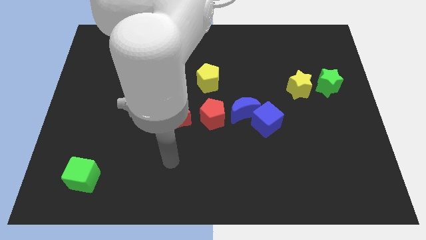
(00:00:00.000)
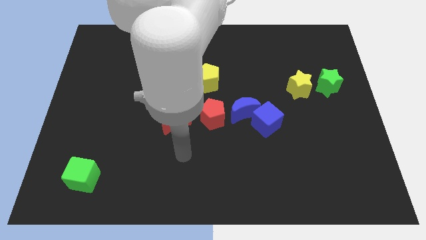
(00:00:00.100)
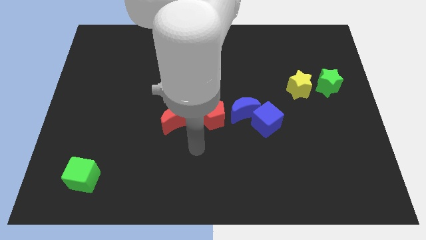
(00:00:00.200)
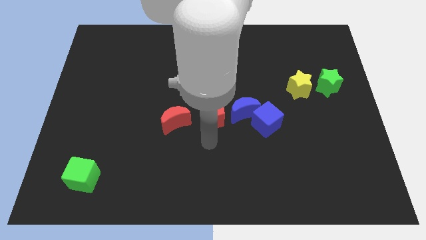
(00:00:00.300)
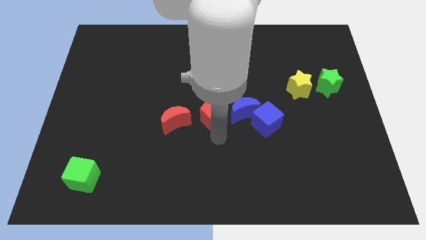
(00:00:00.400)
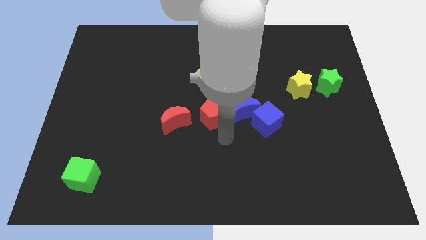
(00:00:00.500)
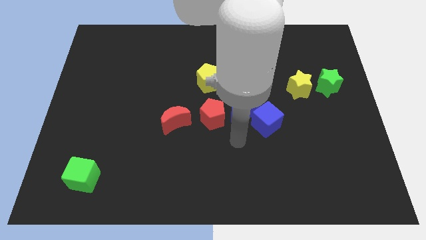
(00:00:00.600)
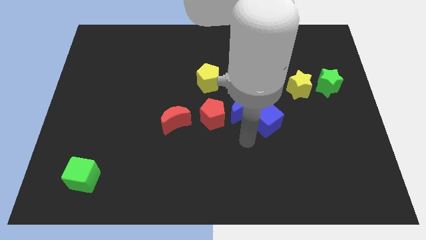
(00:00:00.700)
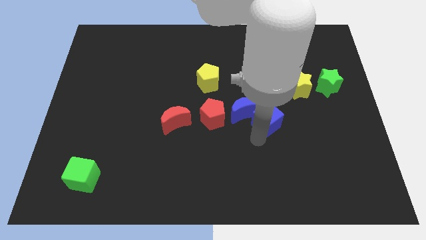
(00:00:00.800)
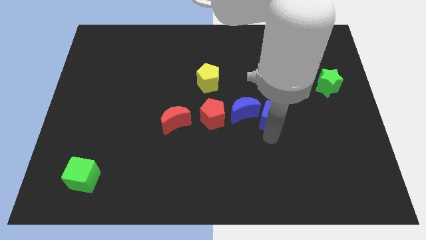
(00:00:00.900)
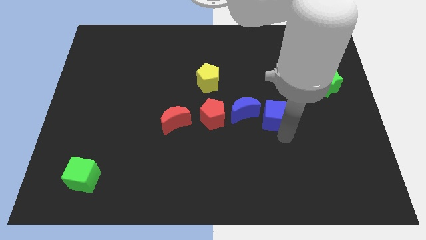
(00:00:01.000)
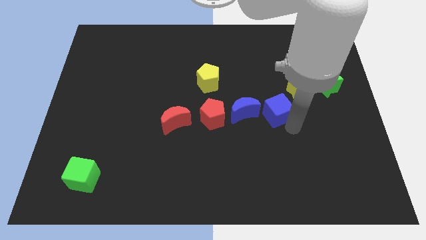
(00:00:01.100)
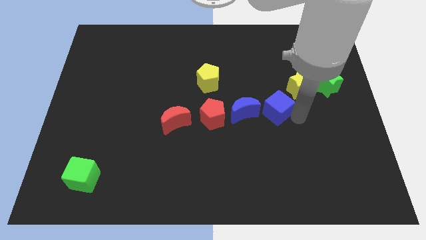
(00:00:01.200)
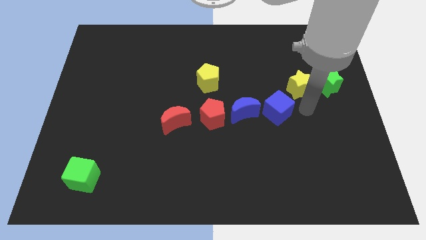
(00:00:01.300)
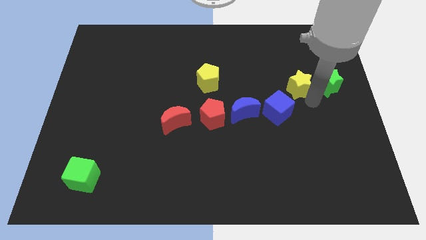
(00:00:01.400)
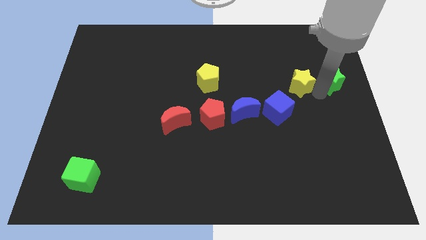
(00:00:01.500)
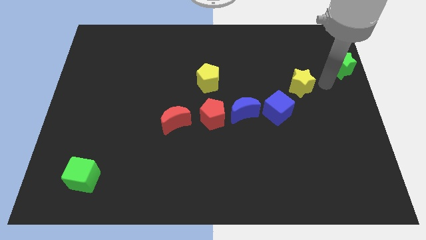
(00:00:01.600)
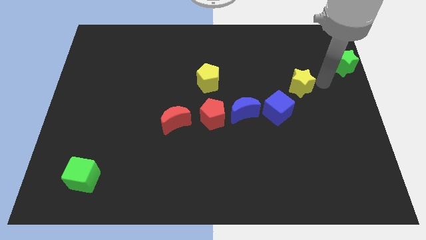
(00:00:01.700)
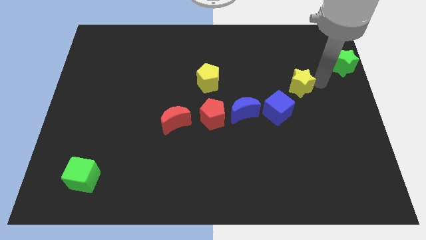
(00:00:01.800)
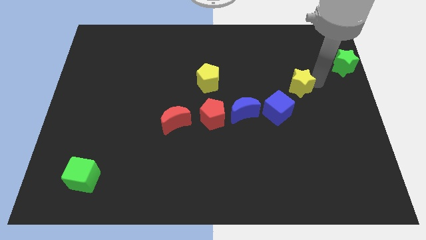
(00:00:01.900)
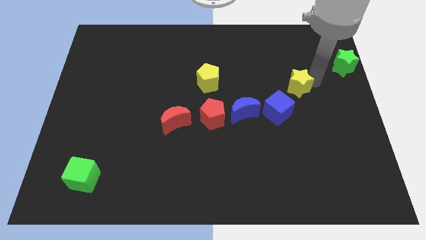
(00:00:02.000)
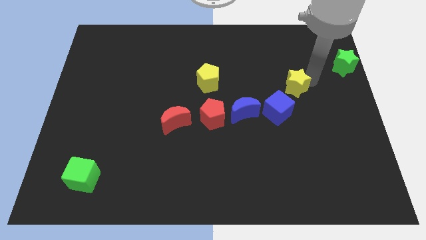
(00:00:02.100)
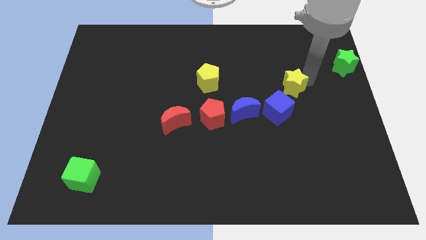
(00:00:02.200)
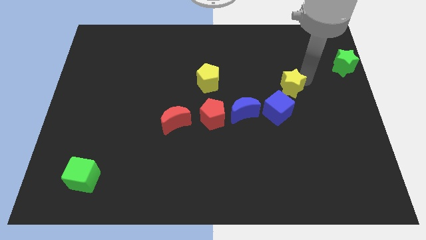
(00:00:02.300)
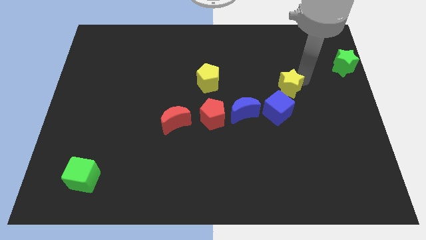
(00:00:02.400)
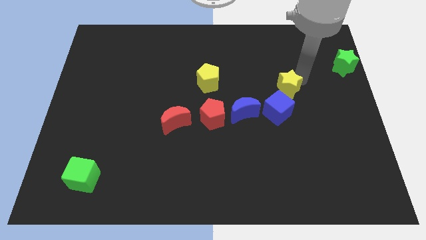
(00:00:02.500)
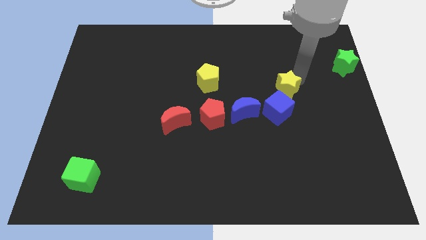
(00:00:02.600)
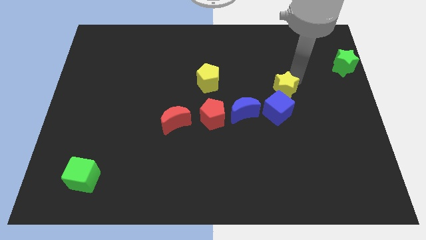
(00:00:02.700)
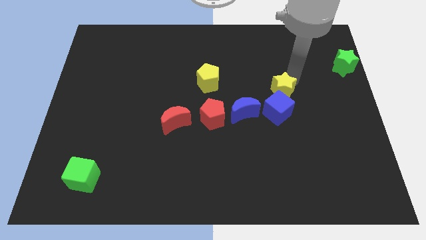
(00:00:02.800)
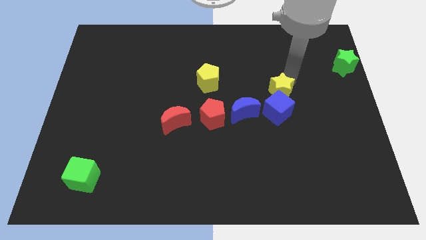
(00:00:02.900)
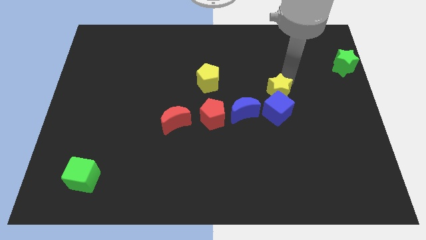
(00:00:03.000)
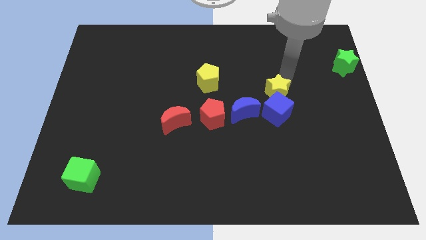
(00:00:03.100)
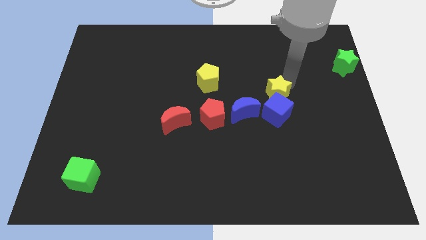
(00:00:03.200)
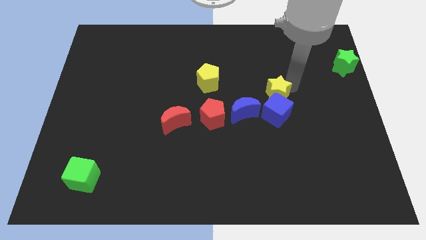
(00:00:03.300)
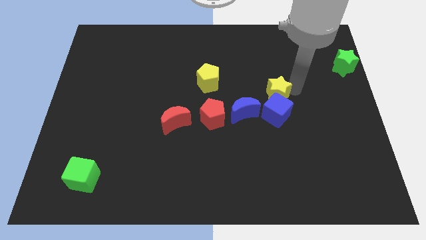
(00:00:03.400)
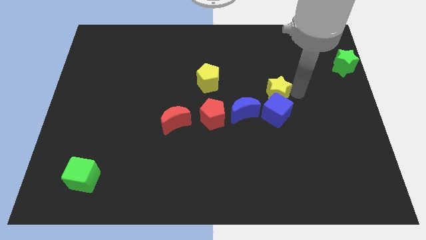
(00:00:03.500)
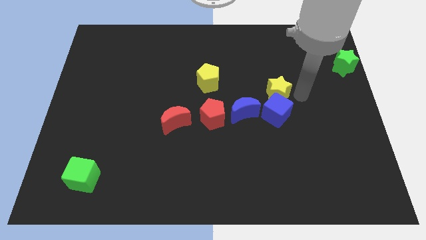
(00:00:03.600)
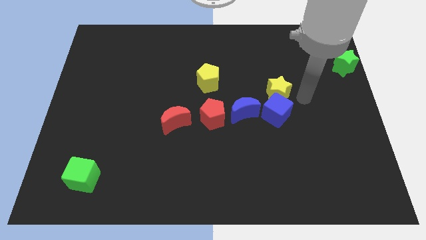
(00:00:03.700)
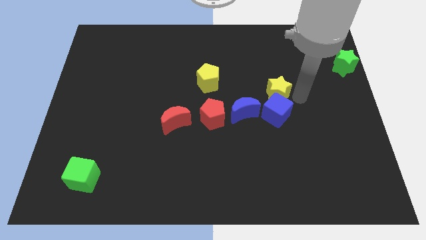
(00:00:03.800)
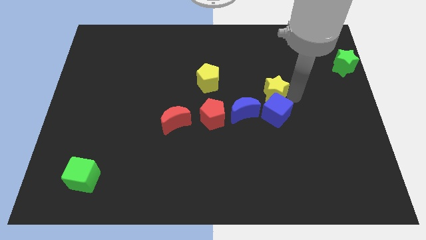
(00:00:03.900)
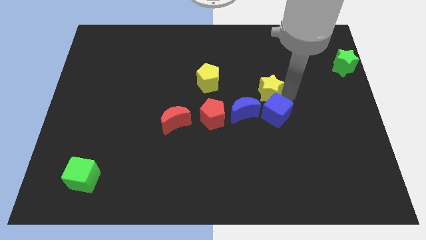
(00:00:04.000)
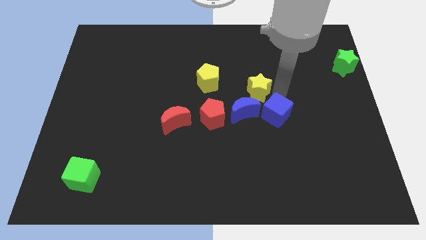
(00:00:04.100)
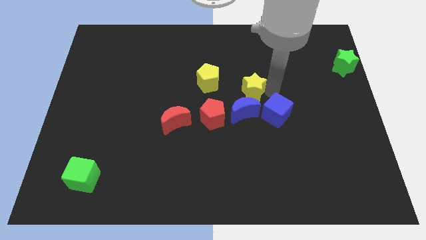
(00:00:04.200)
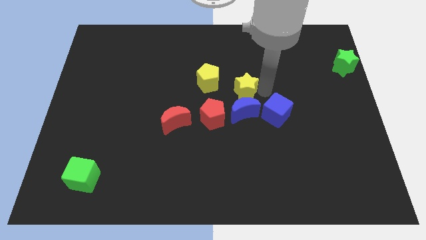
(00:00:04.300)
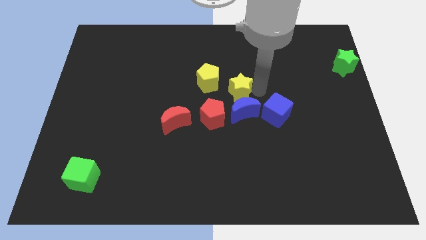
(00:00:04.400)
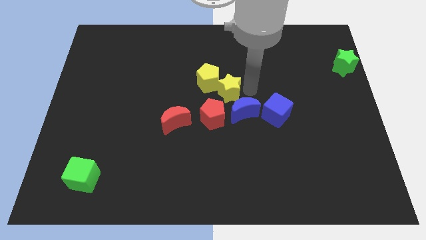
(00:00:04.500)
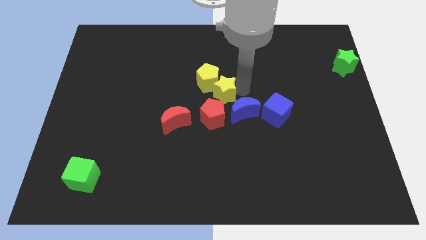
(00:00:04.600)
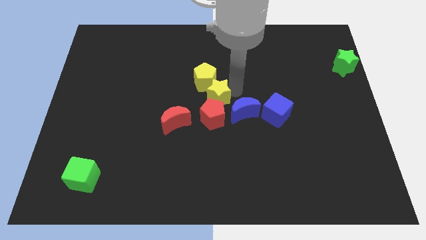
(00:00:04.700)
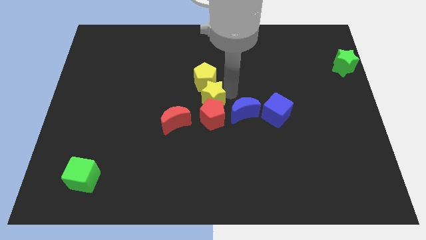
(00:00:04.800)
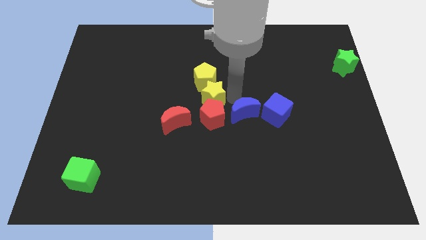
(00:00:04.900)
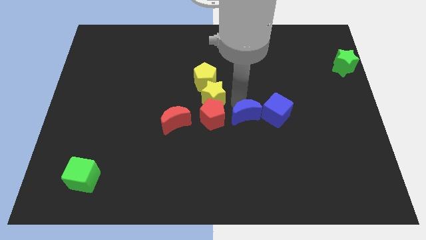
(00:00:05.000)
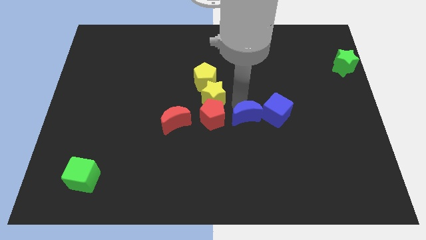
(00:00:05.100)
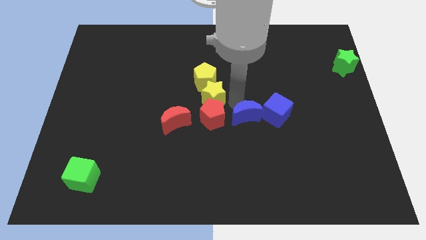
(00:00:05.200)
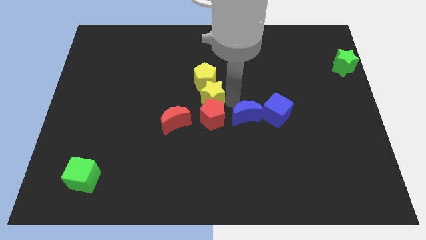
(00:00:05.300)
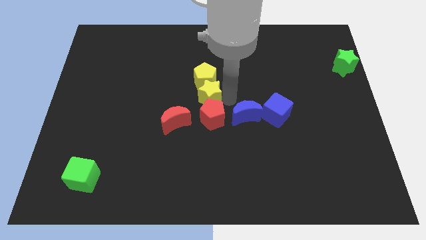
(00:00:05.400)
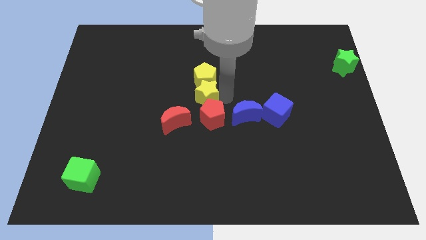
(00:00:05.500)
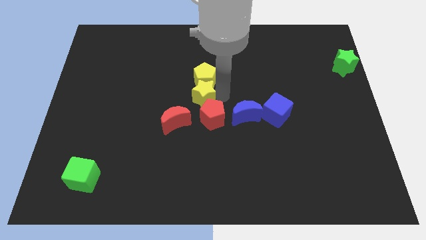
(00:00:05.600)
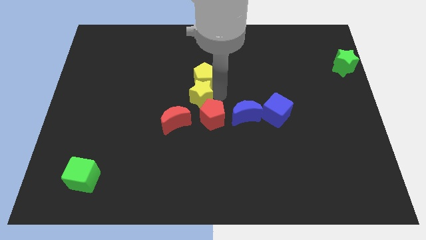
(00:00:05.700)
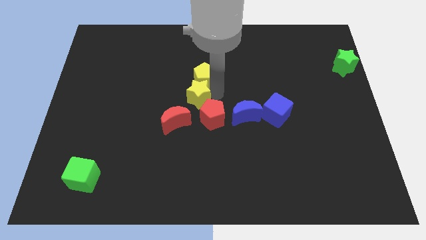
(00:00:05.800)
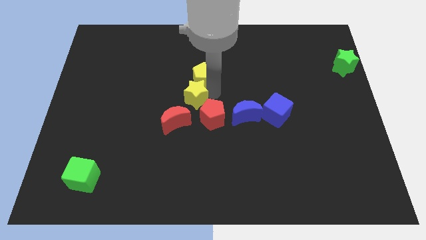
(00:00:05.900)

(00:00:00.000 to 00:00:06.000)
move the yellow star to the top of the red moon

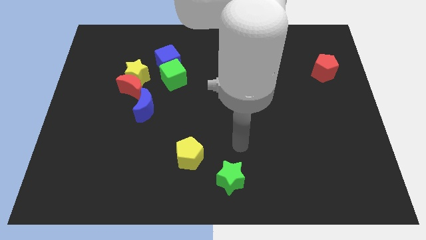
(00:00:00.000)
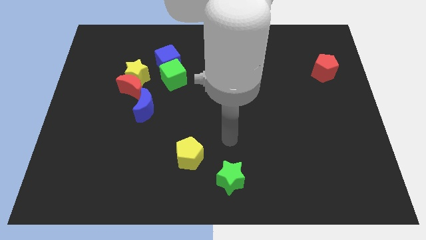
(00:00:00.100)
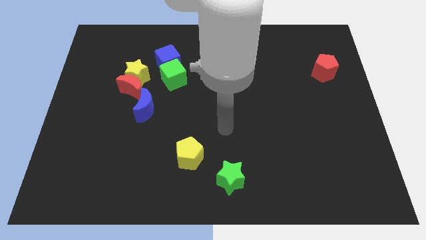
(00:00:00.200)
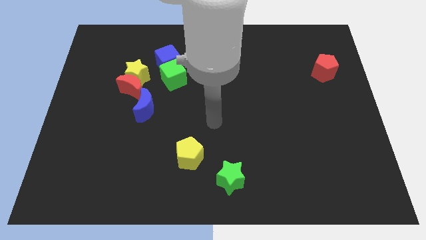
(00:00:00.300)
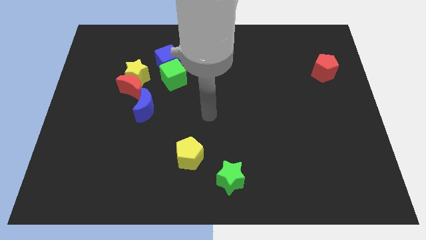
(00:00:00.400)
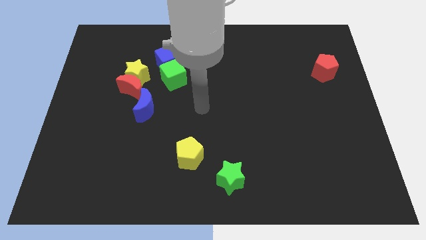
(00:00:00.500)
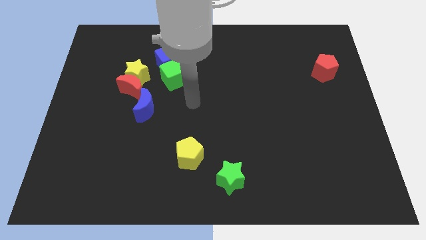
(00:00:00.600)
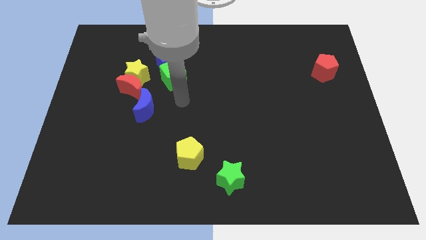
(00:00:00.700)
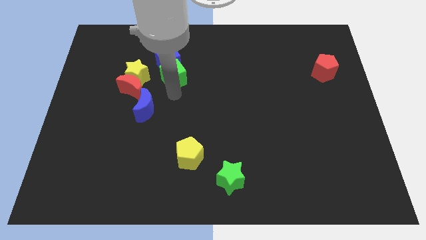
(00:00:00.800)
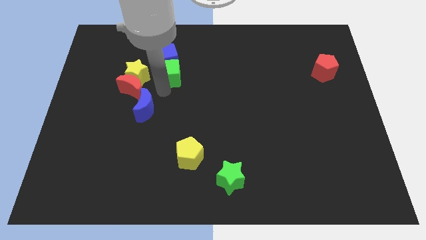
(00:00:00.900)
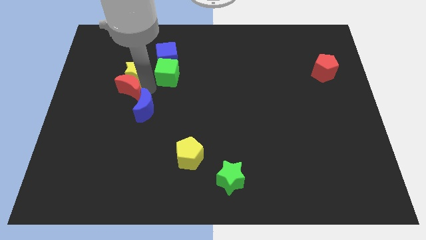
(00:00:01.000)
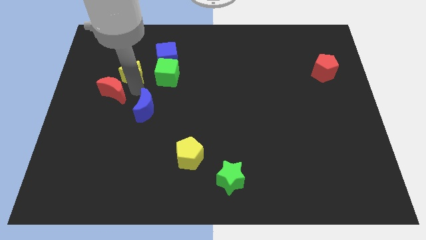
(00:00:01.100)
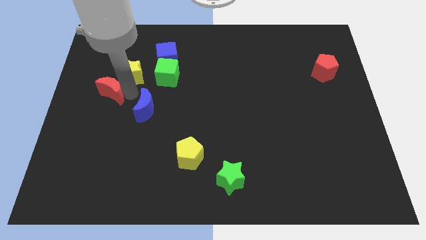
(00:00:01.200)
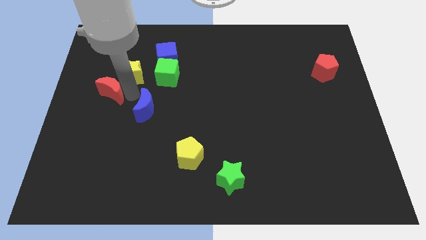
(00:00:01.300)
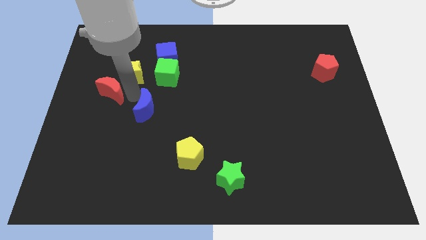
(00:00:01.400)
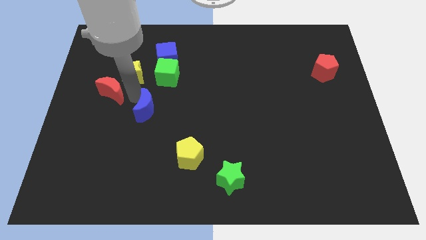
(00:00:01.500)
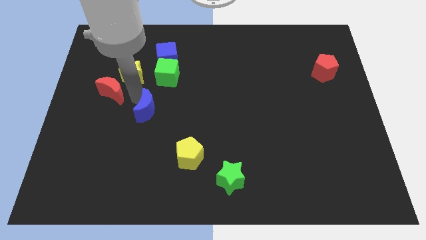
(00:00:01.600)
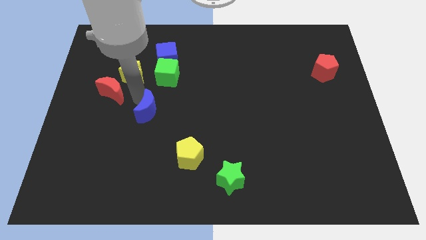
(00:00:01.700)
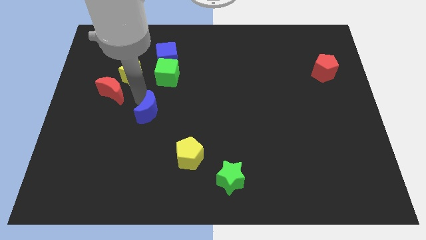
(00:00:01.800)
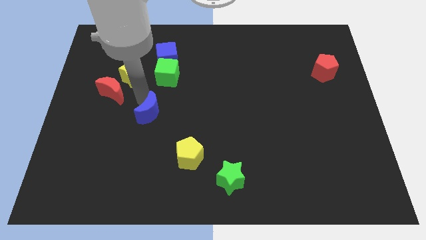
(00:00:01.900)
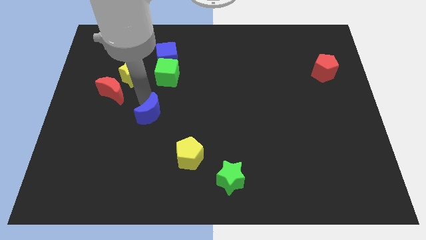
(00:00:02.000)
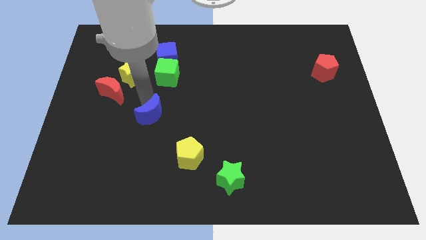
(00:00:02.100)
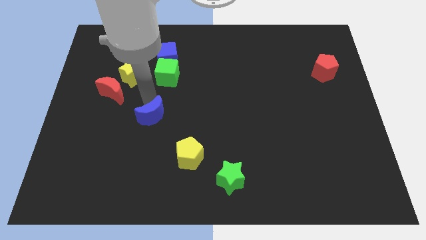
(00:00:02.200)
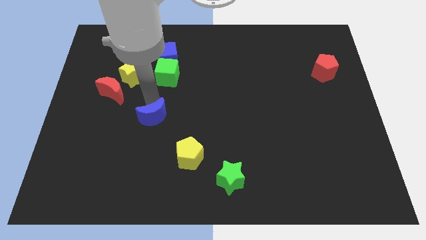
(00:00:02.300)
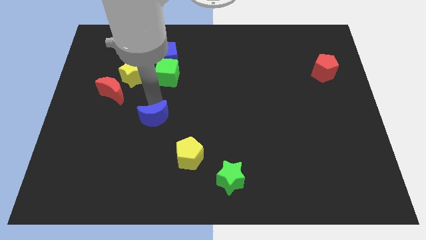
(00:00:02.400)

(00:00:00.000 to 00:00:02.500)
push the blue moon to the top left side of the yellow pentagon
